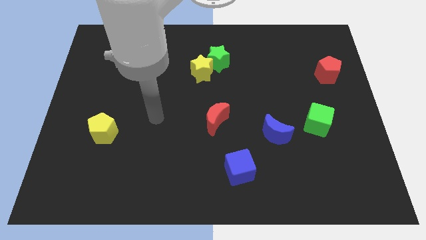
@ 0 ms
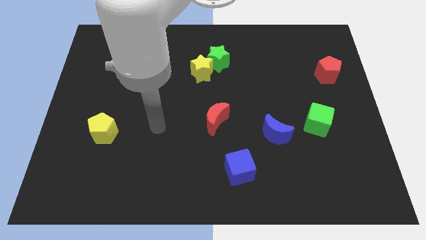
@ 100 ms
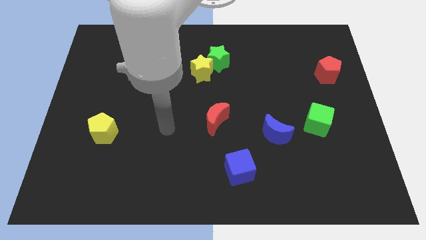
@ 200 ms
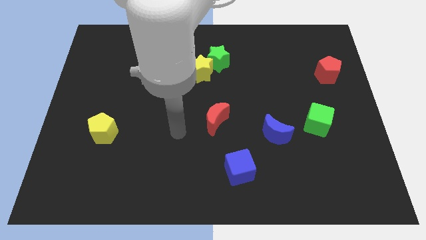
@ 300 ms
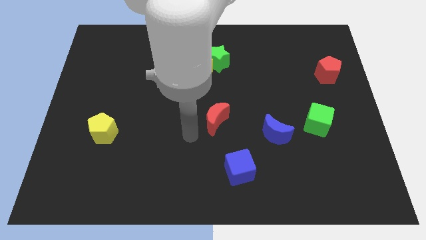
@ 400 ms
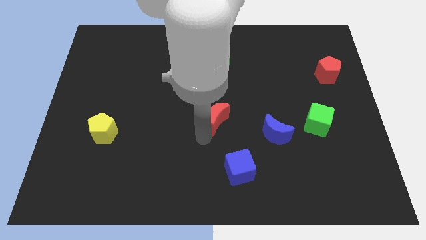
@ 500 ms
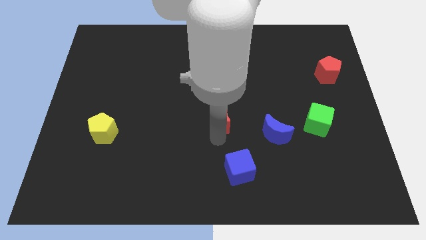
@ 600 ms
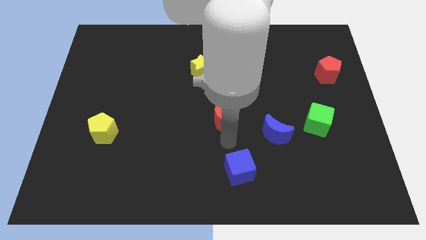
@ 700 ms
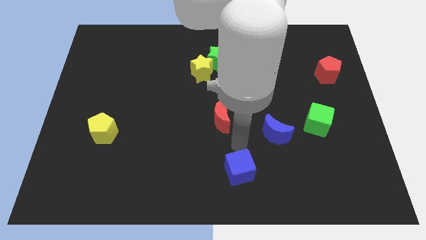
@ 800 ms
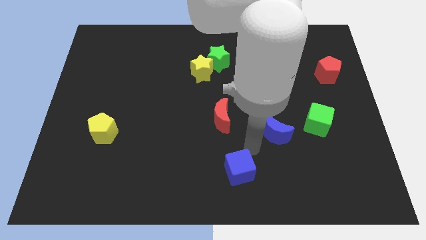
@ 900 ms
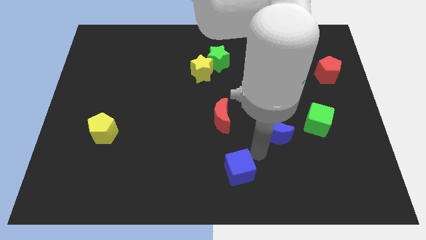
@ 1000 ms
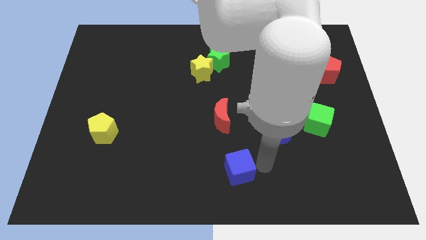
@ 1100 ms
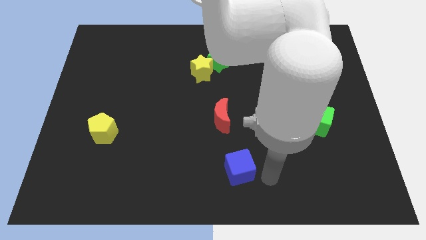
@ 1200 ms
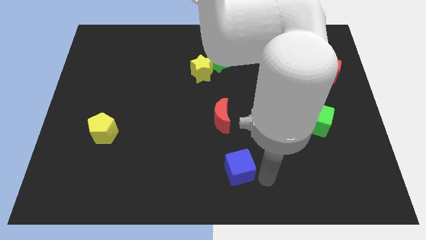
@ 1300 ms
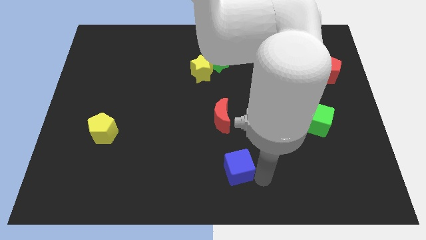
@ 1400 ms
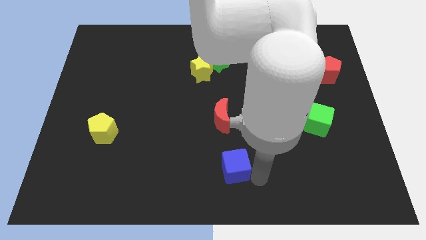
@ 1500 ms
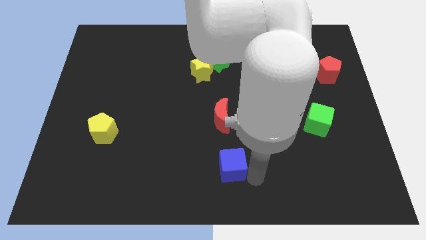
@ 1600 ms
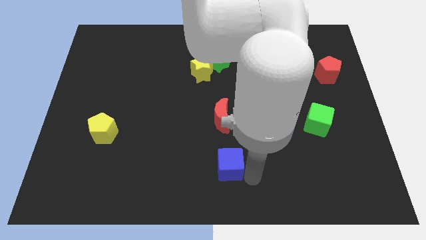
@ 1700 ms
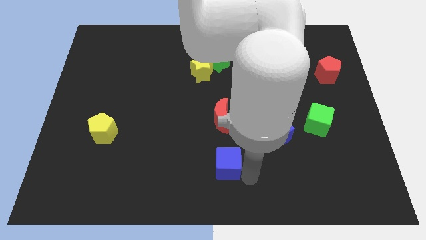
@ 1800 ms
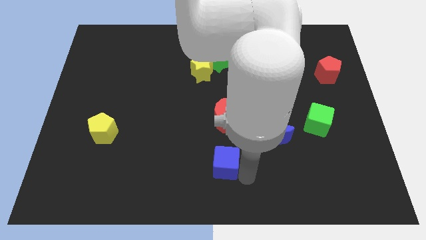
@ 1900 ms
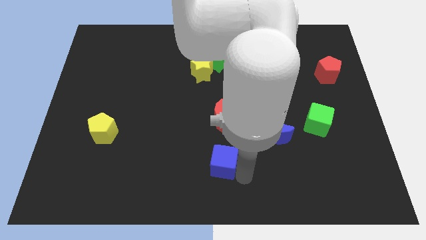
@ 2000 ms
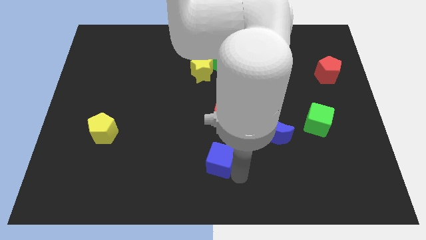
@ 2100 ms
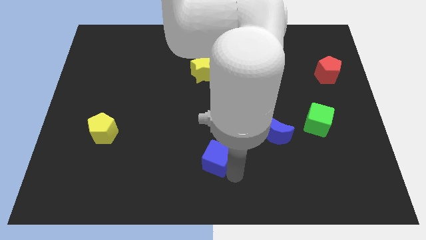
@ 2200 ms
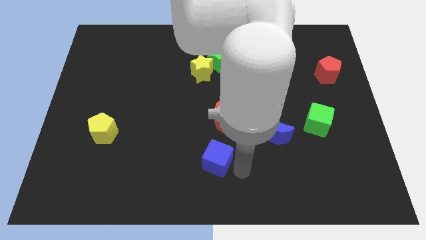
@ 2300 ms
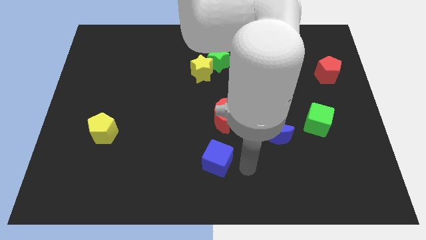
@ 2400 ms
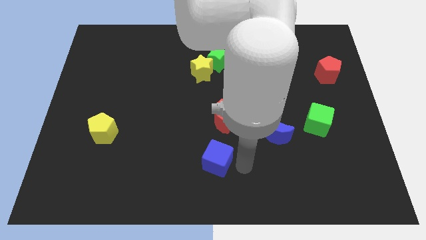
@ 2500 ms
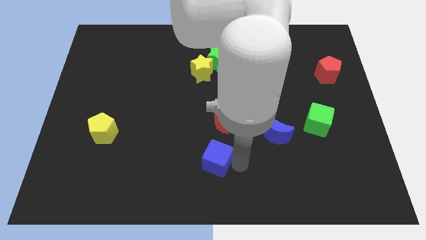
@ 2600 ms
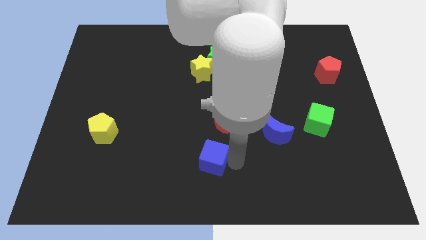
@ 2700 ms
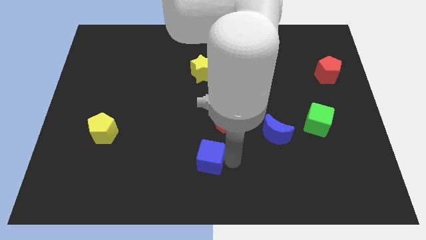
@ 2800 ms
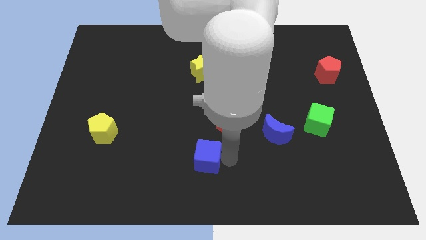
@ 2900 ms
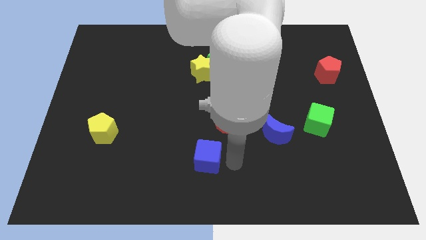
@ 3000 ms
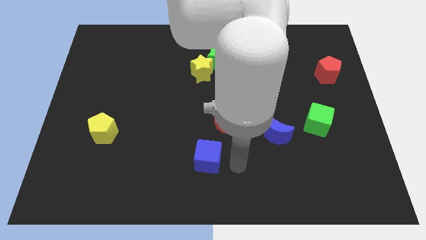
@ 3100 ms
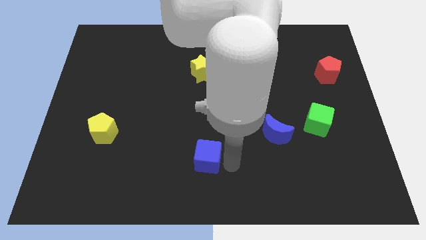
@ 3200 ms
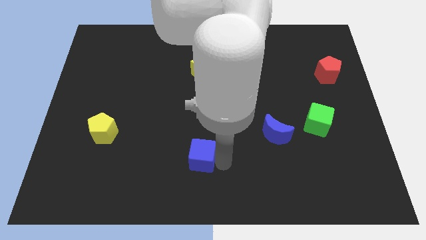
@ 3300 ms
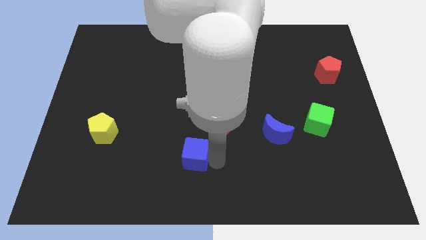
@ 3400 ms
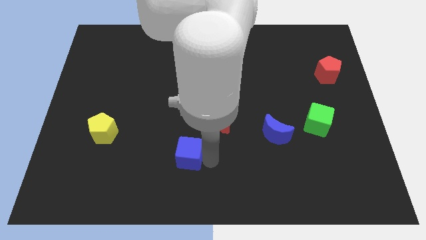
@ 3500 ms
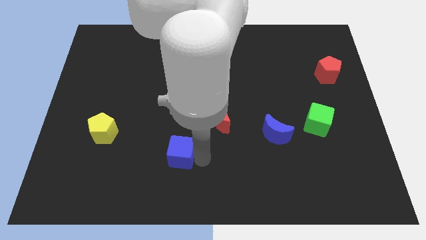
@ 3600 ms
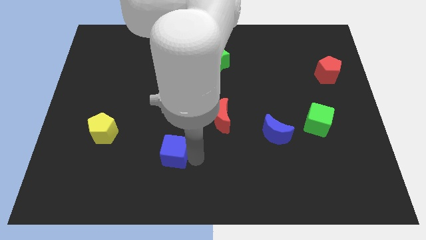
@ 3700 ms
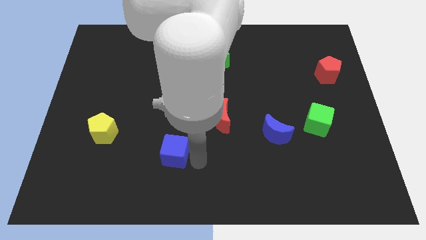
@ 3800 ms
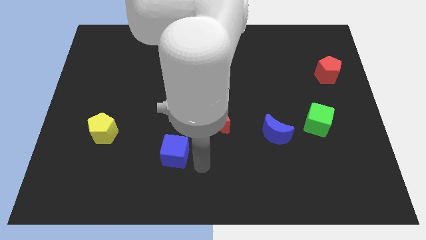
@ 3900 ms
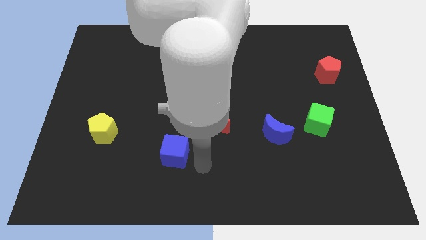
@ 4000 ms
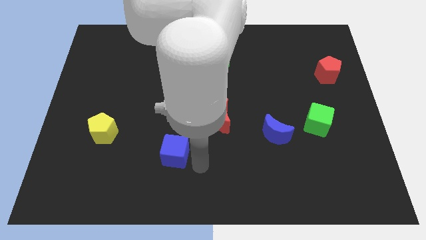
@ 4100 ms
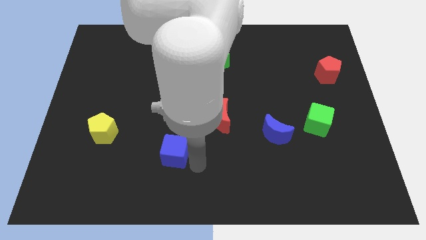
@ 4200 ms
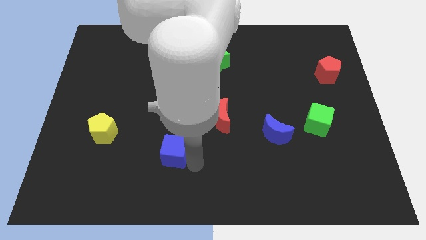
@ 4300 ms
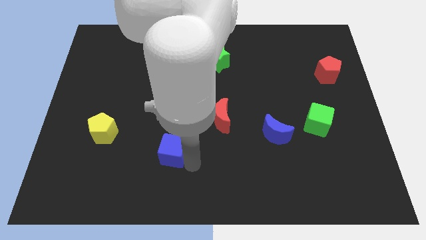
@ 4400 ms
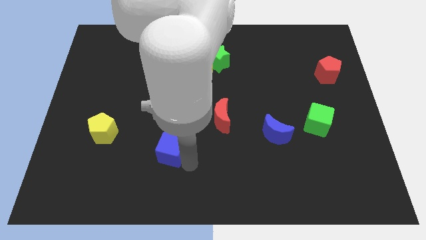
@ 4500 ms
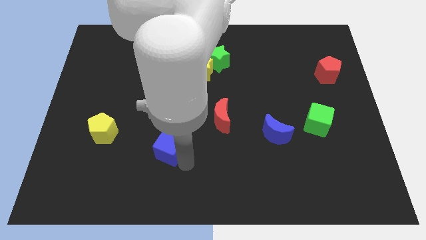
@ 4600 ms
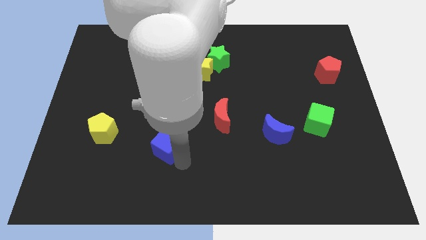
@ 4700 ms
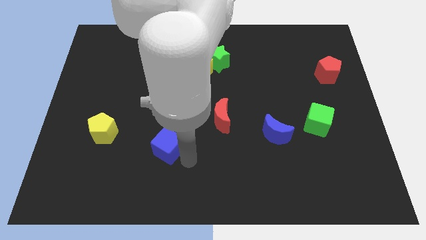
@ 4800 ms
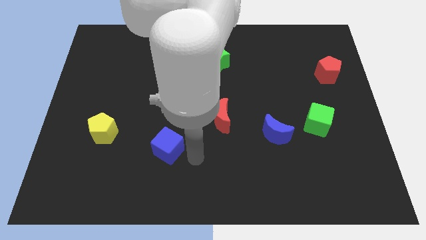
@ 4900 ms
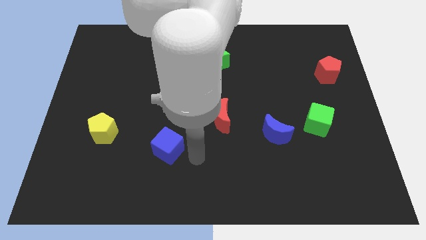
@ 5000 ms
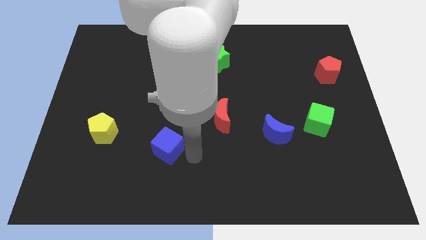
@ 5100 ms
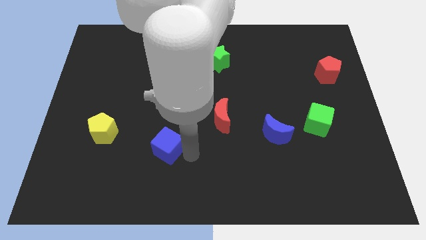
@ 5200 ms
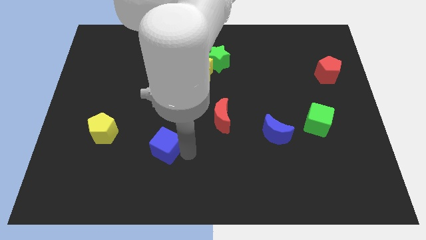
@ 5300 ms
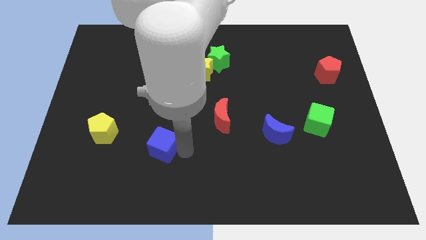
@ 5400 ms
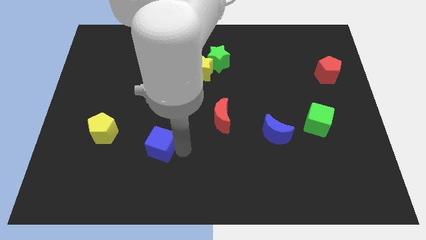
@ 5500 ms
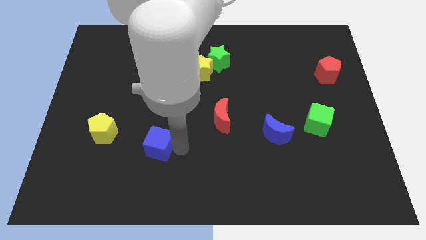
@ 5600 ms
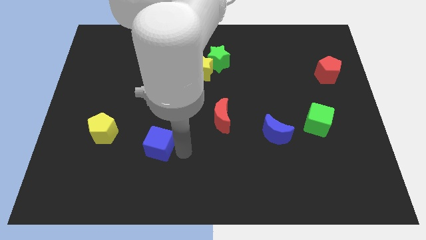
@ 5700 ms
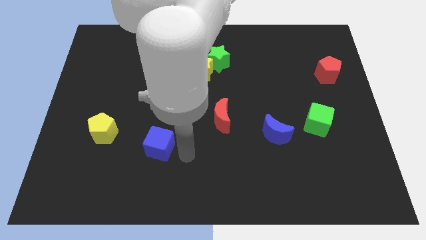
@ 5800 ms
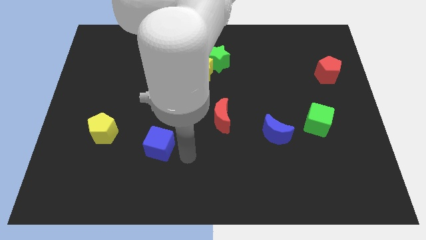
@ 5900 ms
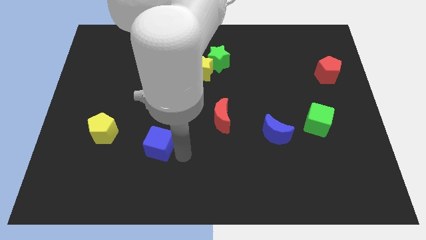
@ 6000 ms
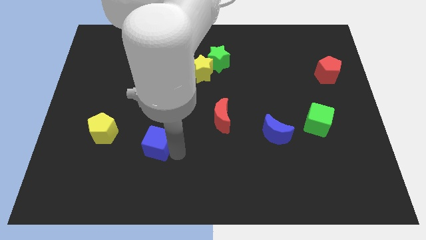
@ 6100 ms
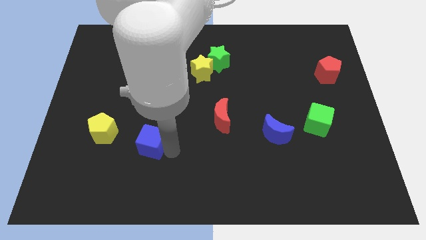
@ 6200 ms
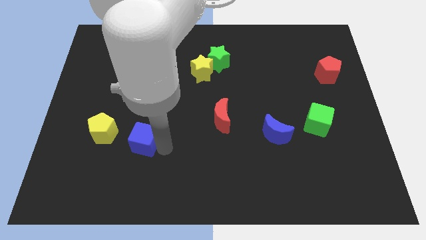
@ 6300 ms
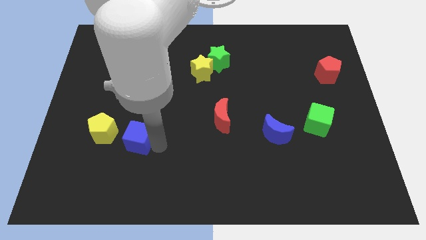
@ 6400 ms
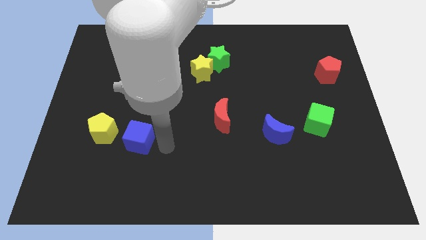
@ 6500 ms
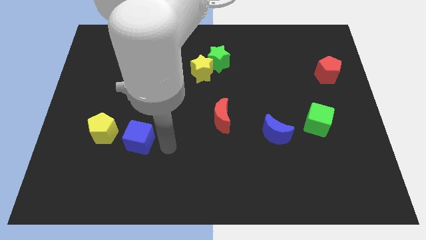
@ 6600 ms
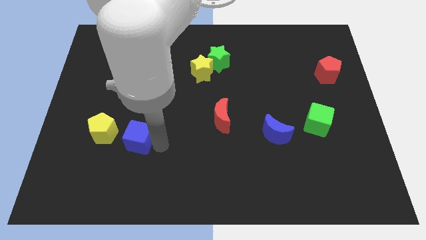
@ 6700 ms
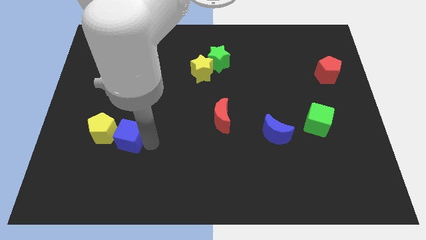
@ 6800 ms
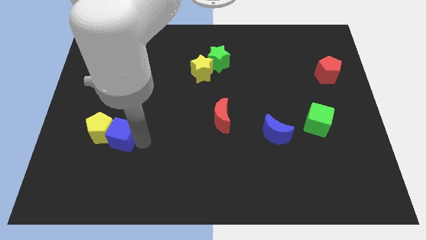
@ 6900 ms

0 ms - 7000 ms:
move the blue cube close to the yellow pentagon
